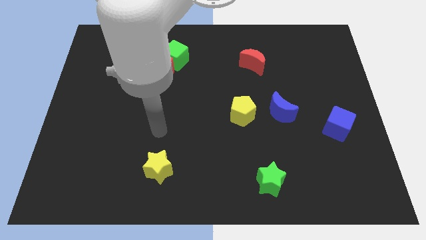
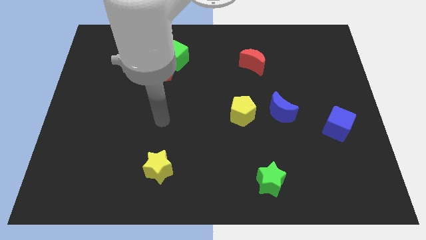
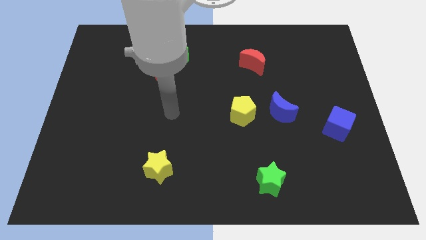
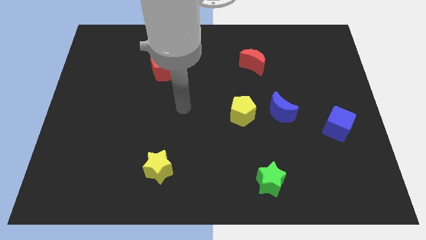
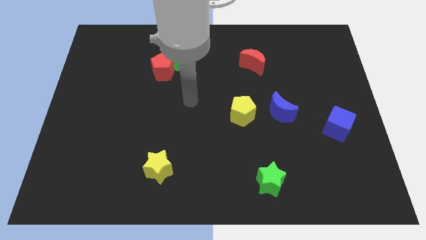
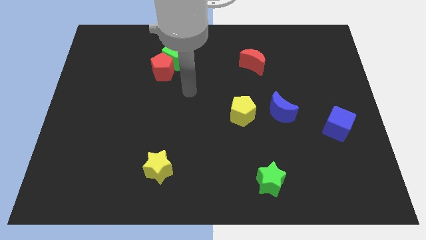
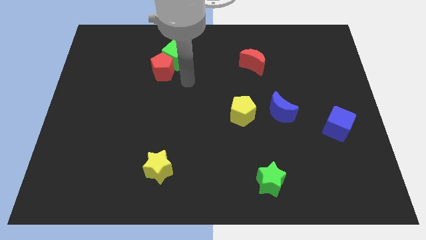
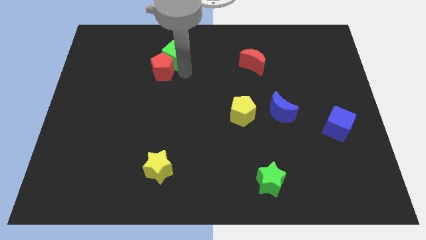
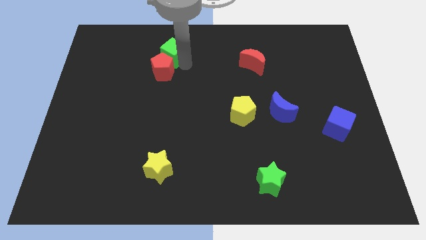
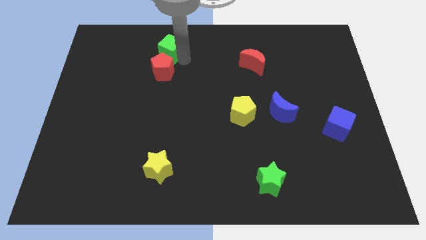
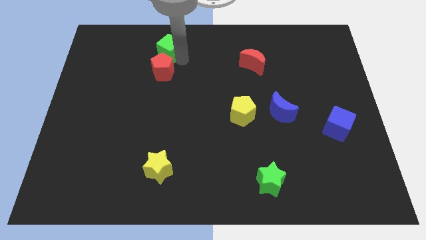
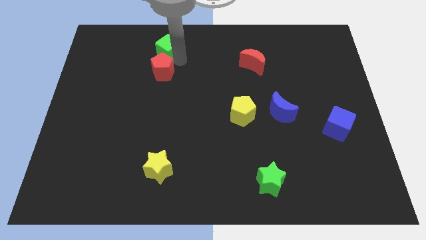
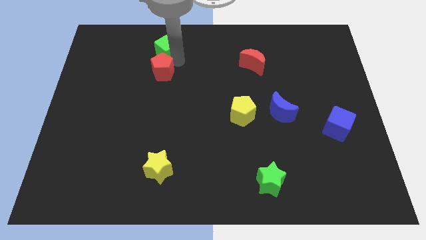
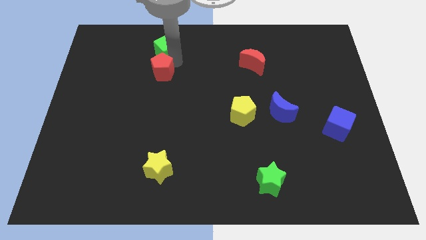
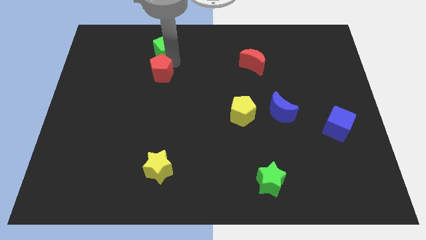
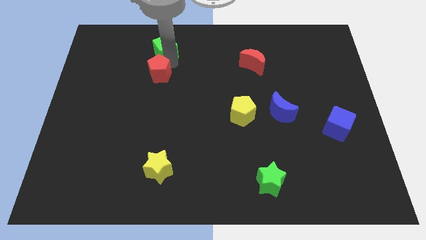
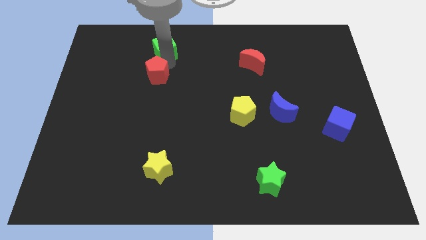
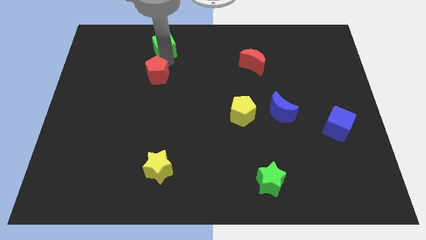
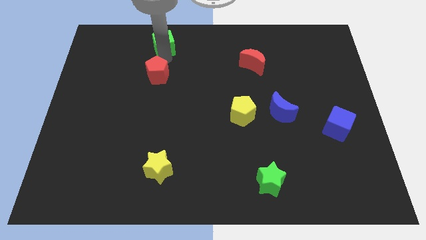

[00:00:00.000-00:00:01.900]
separate the red pentagon from the green cube

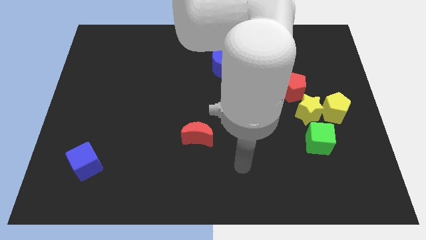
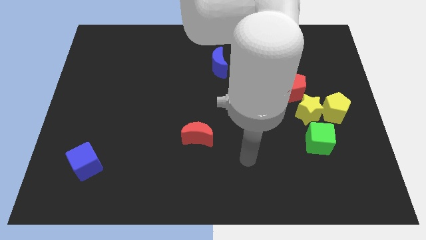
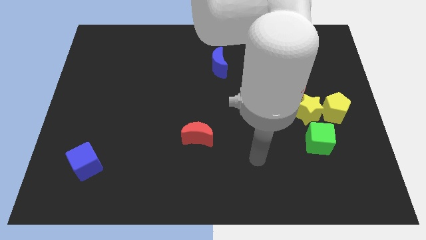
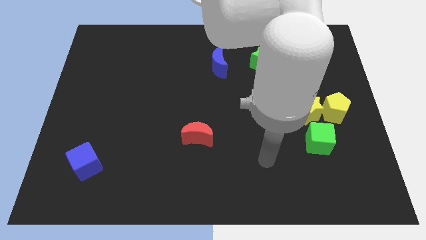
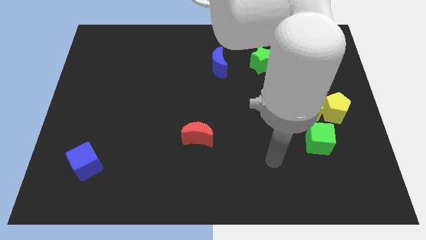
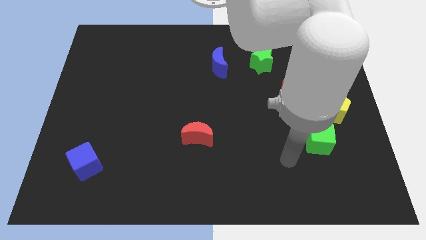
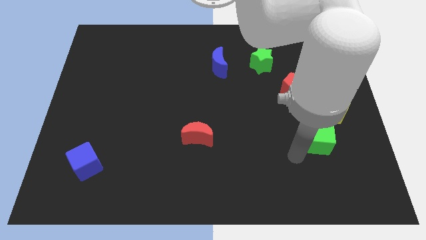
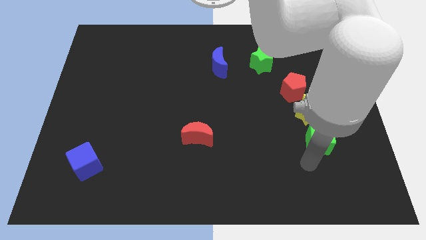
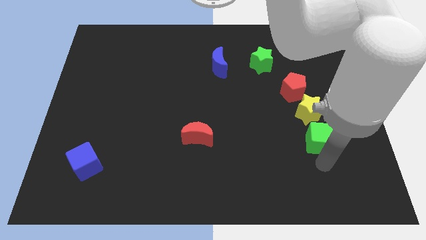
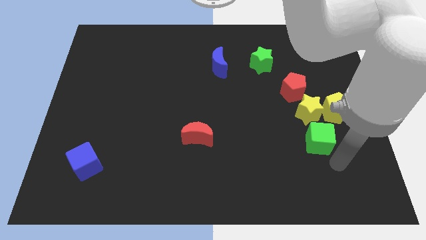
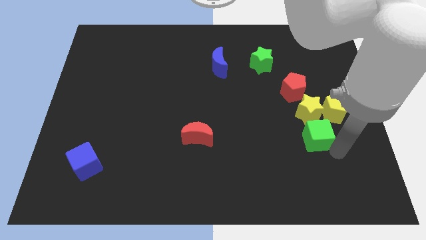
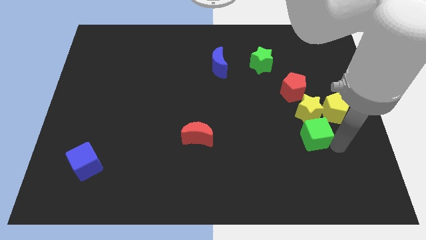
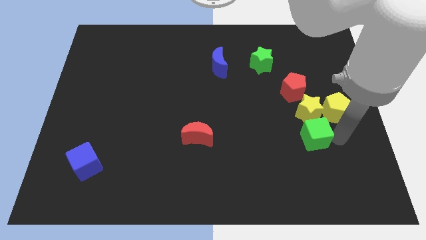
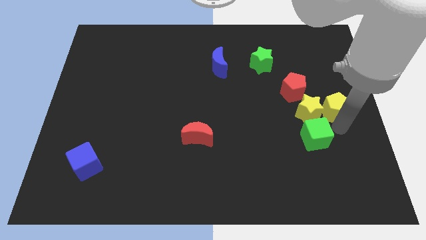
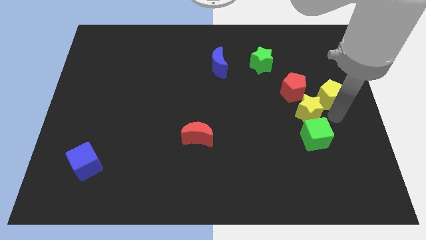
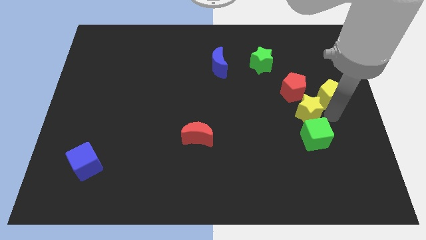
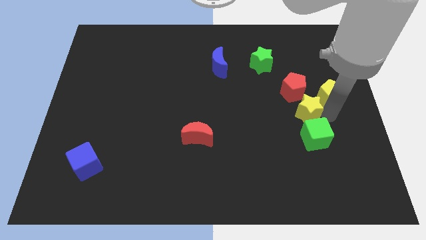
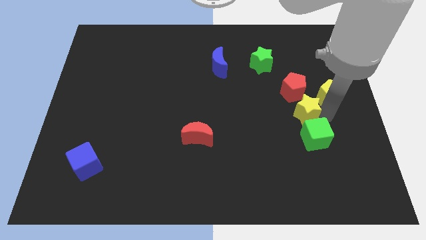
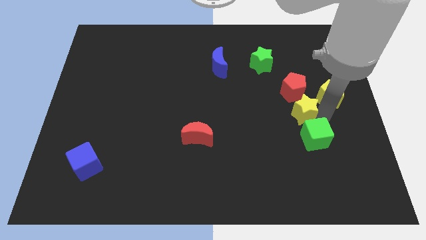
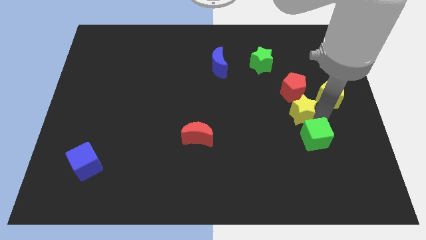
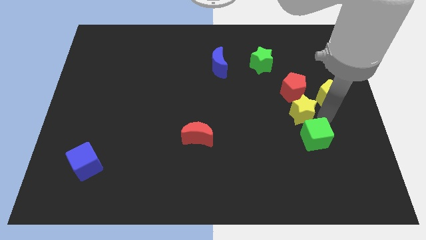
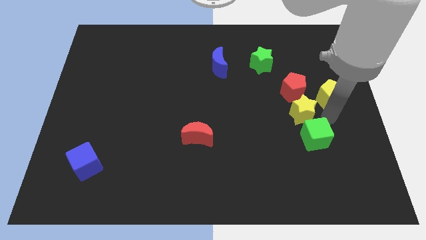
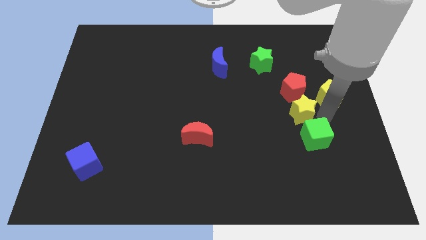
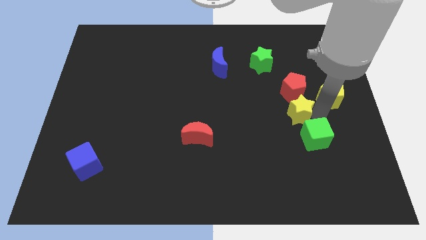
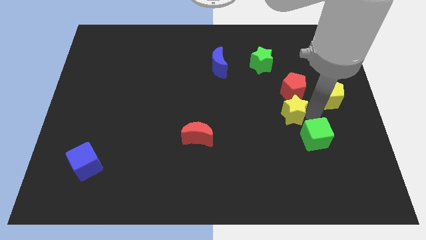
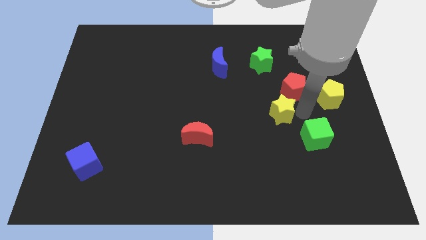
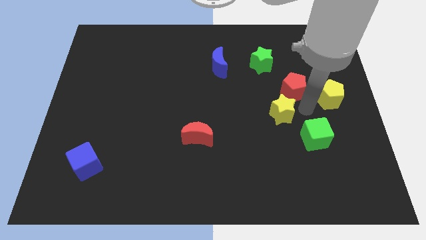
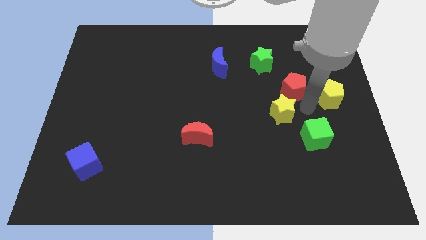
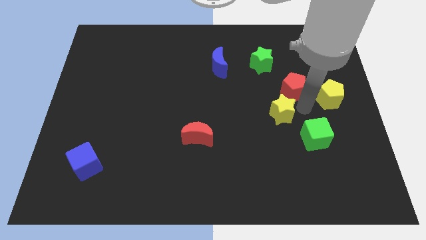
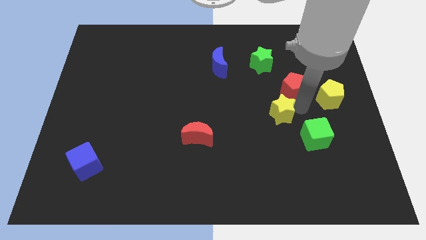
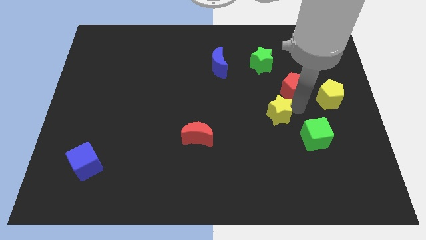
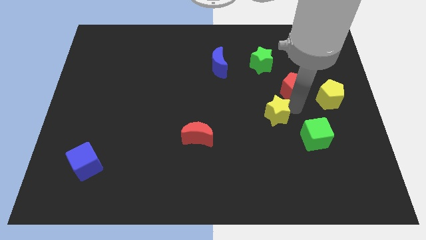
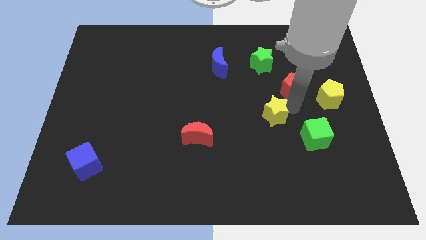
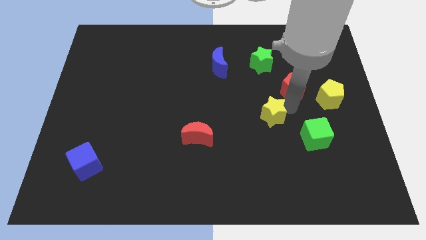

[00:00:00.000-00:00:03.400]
pull the yellow star apart from the clump

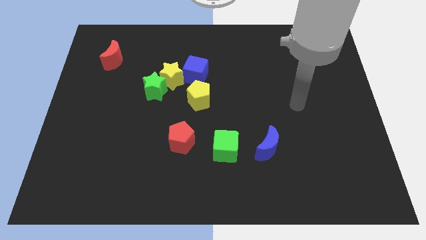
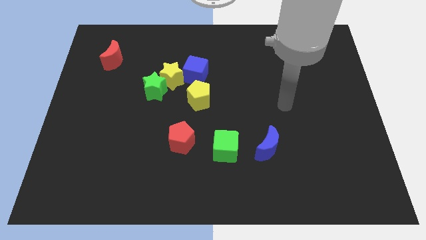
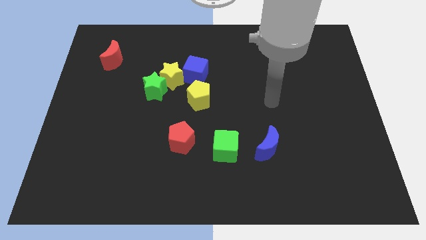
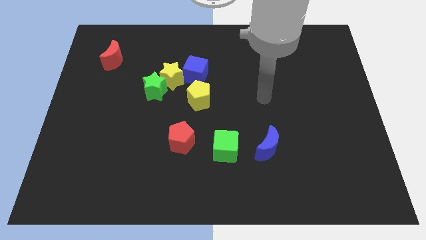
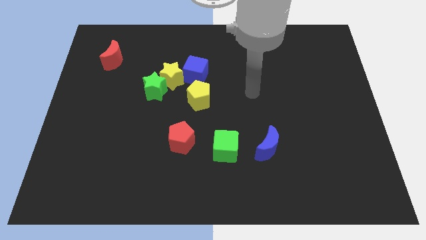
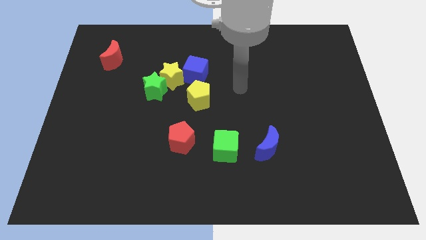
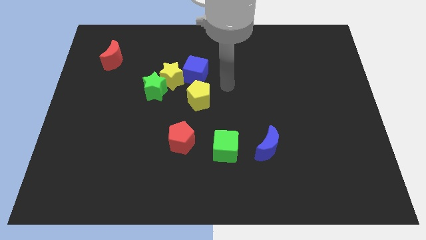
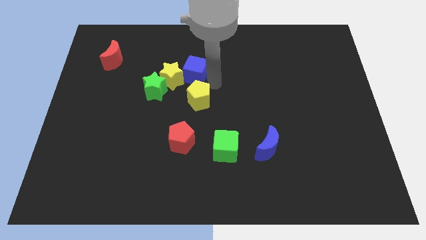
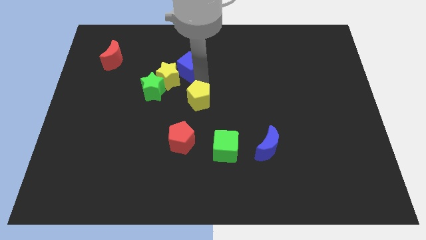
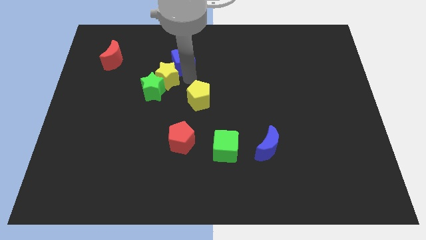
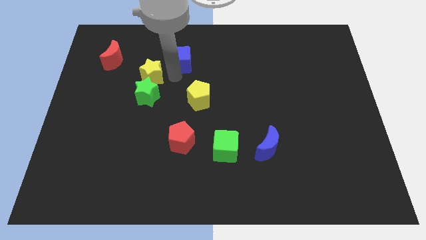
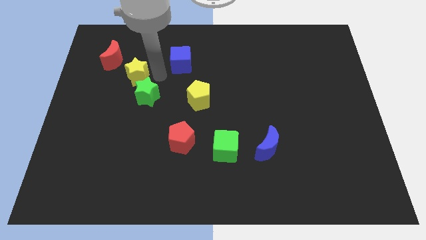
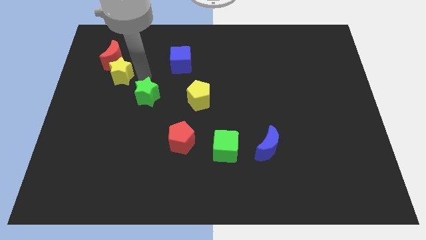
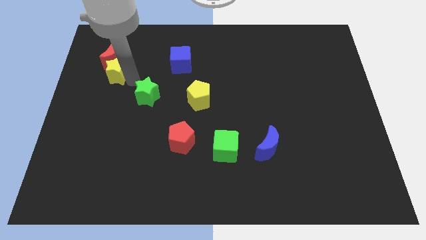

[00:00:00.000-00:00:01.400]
separate the green star from the yellow star

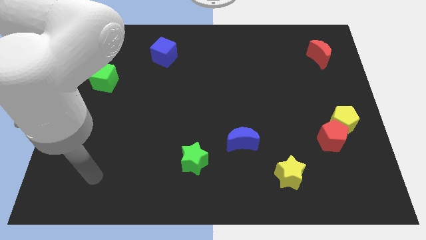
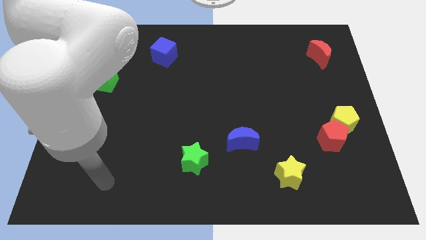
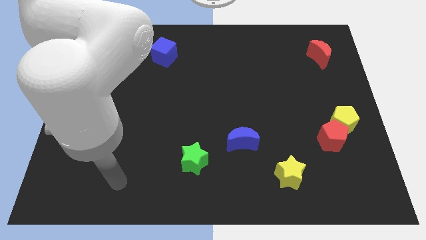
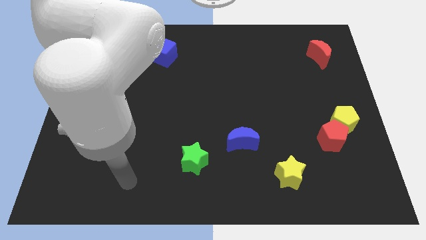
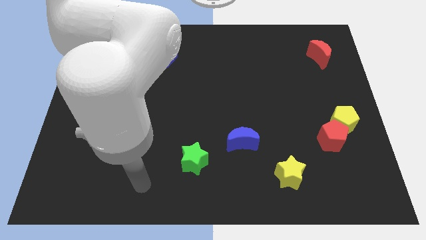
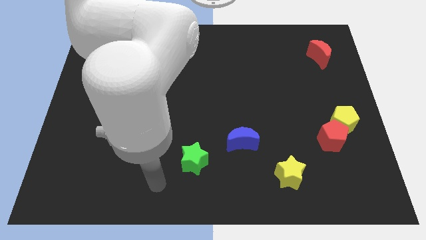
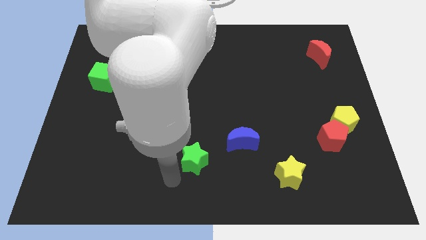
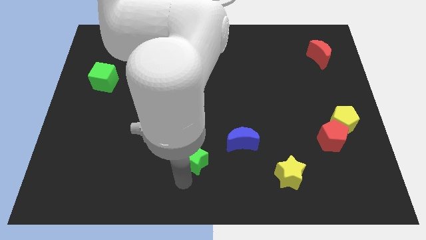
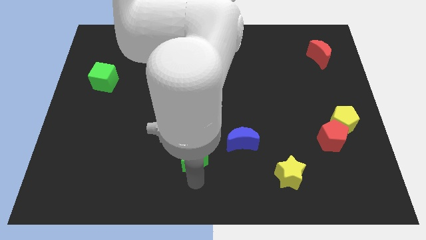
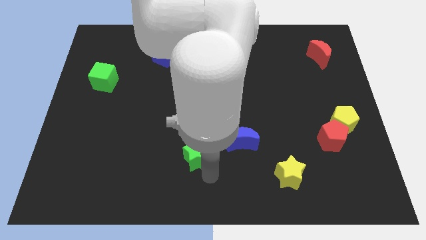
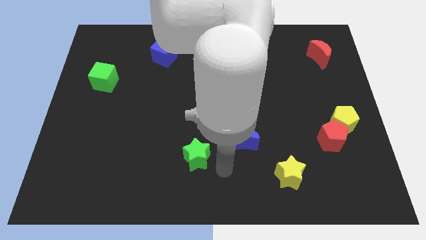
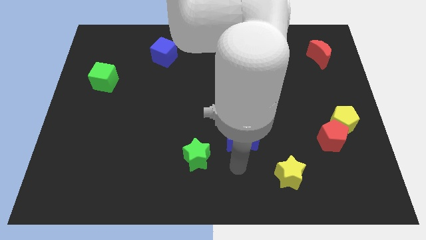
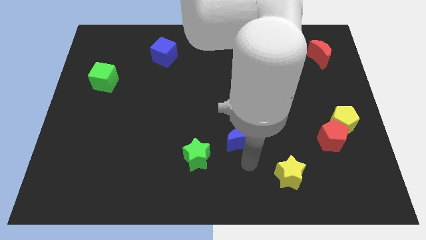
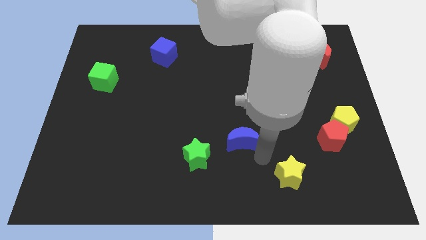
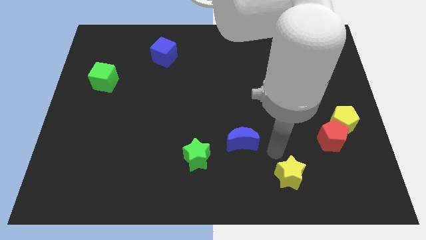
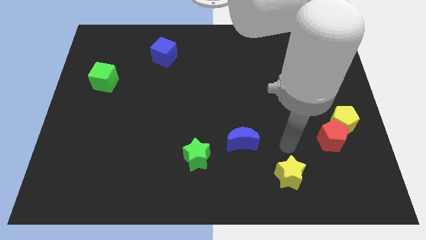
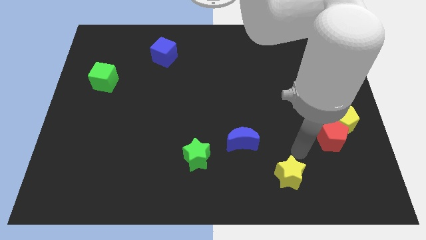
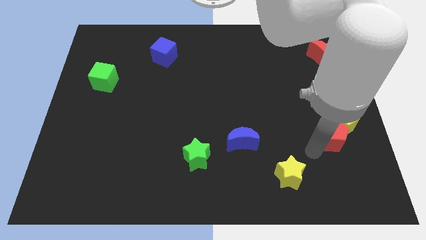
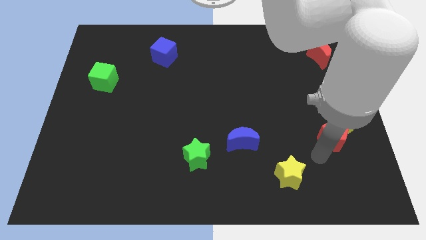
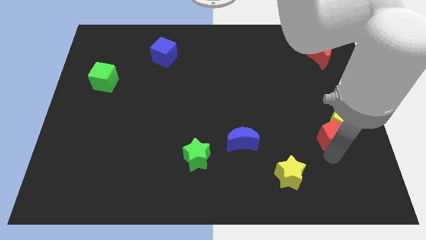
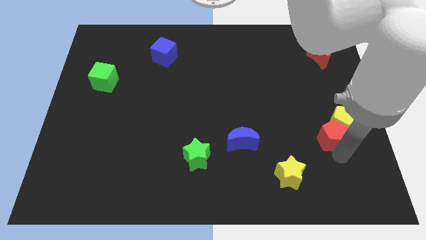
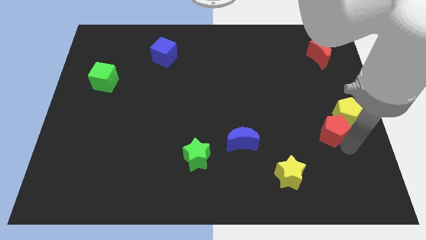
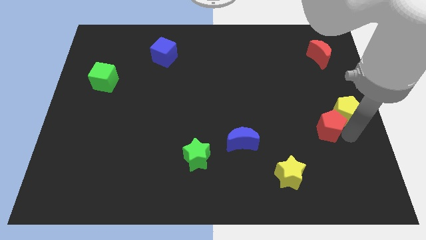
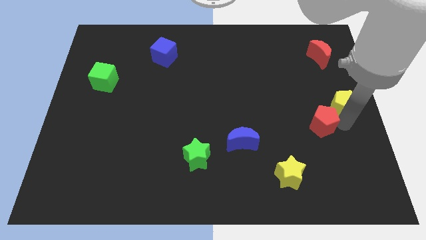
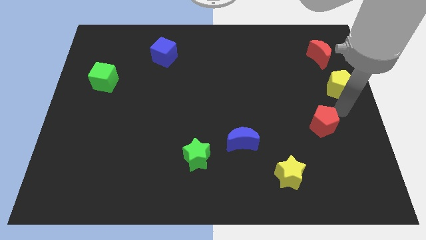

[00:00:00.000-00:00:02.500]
move the red pentagon away from the yellow pentagon
